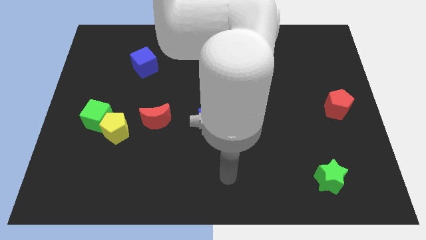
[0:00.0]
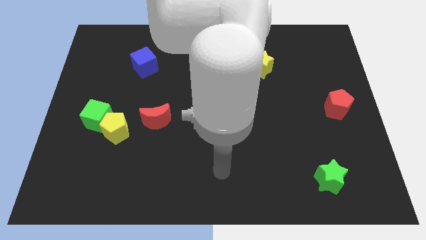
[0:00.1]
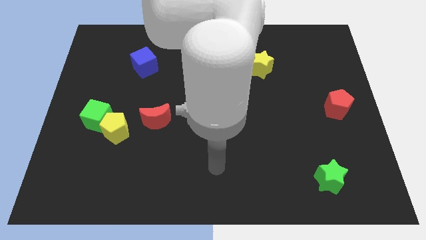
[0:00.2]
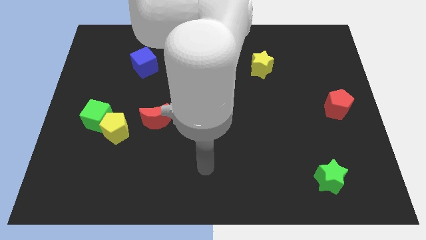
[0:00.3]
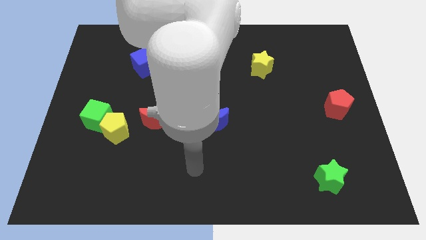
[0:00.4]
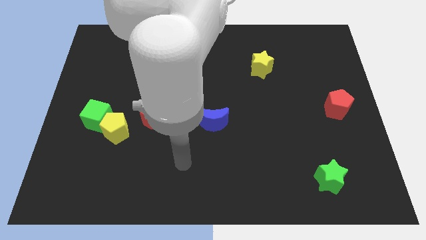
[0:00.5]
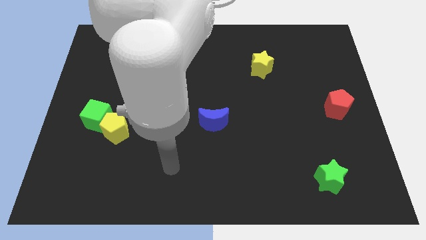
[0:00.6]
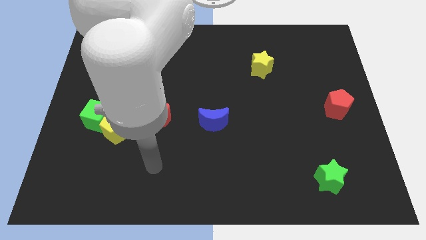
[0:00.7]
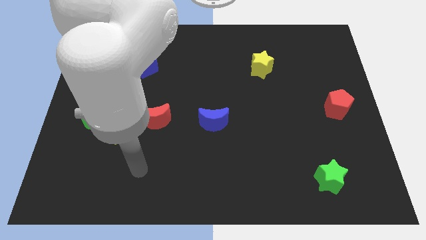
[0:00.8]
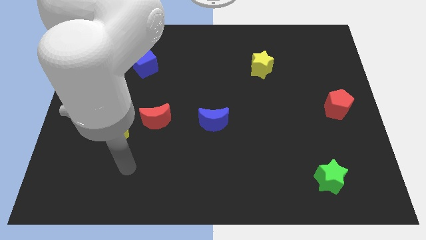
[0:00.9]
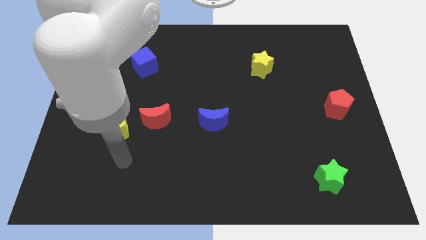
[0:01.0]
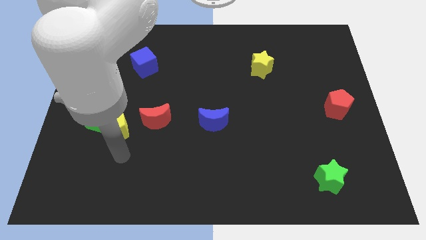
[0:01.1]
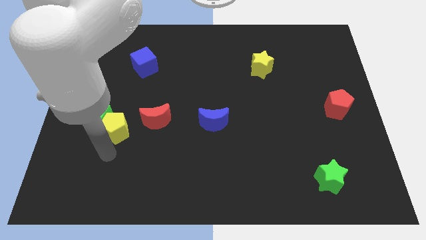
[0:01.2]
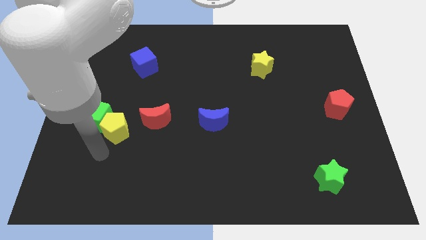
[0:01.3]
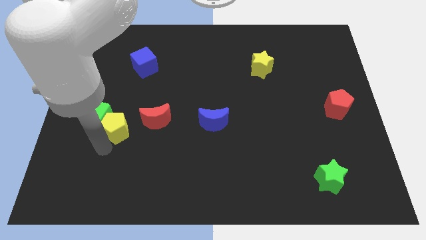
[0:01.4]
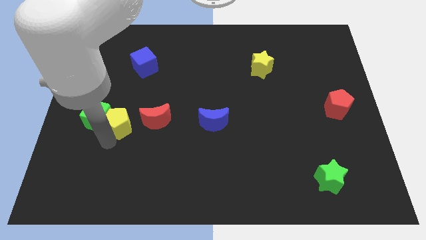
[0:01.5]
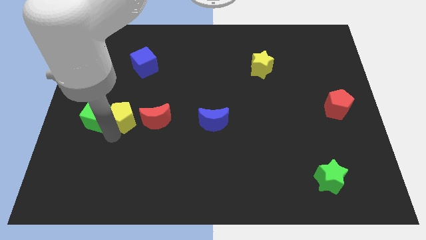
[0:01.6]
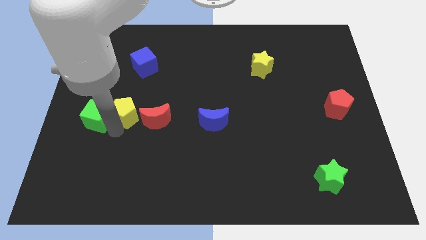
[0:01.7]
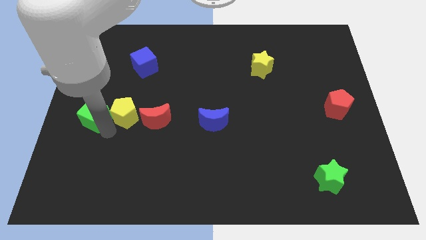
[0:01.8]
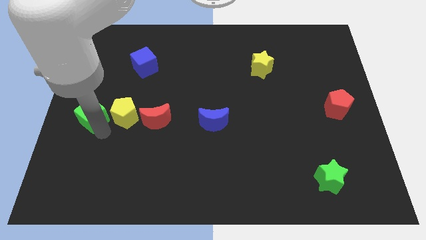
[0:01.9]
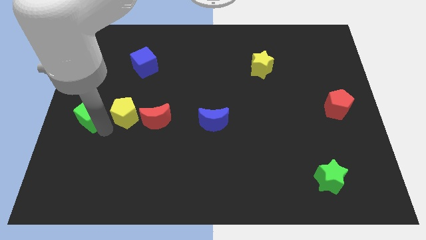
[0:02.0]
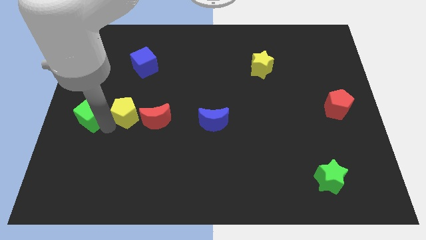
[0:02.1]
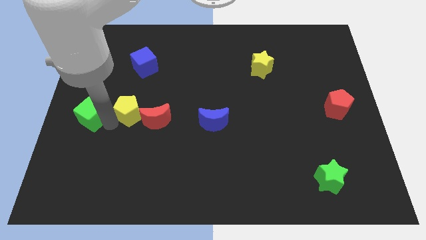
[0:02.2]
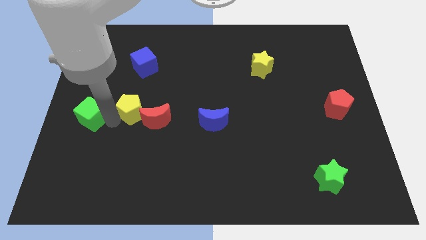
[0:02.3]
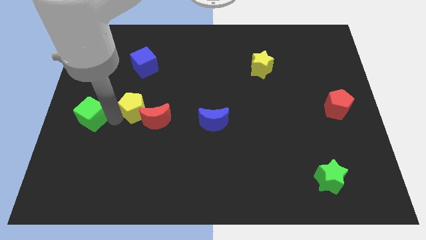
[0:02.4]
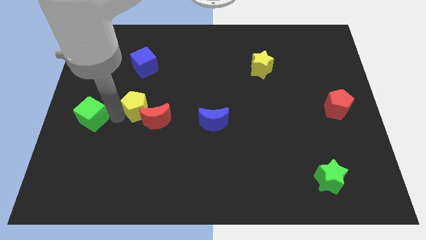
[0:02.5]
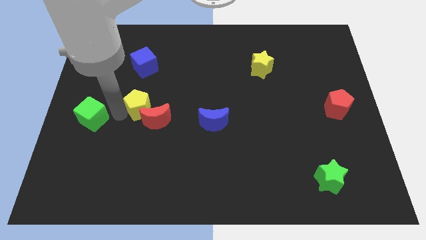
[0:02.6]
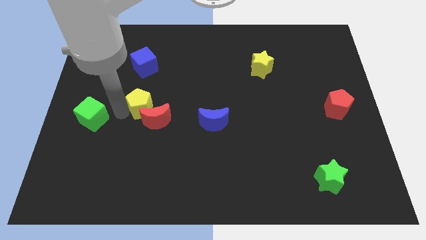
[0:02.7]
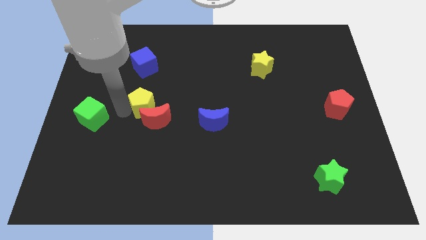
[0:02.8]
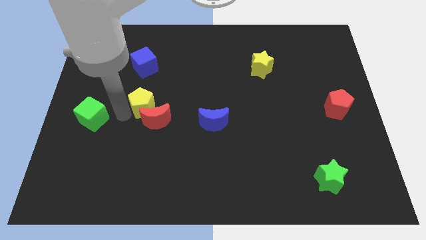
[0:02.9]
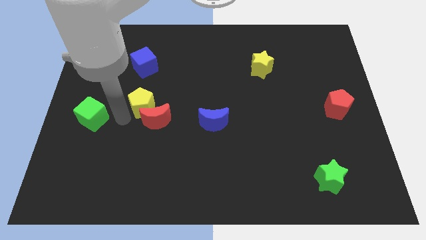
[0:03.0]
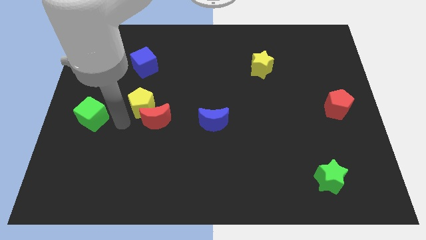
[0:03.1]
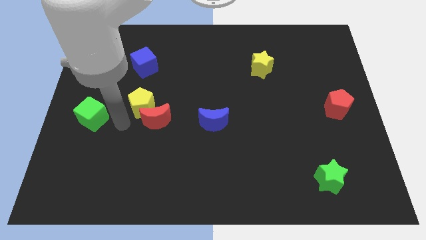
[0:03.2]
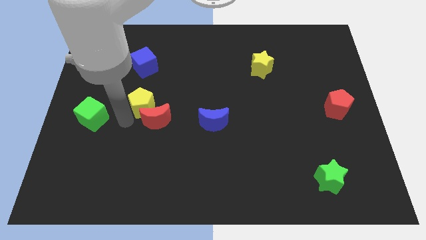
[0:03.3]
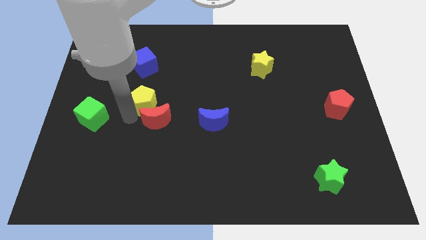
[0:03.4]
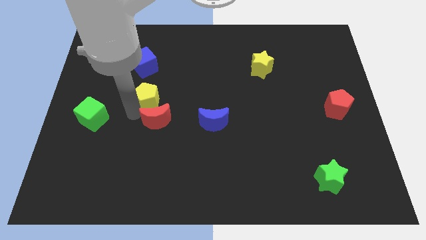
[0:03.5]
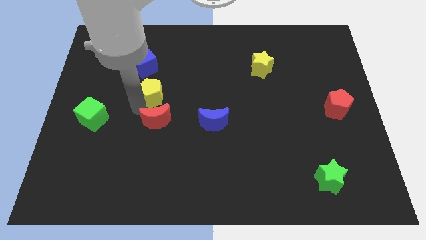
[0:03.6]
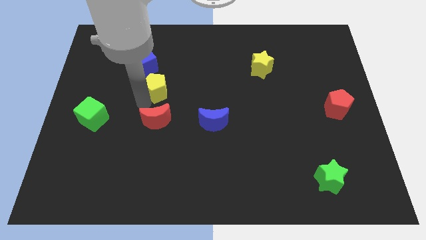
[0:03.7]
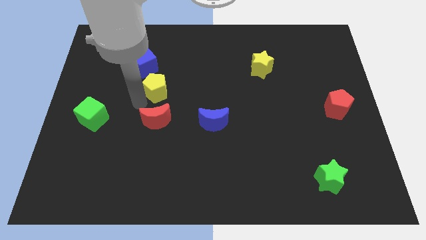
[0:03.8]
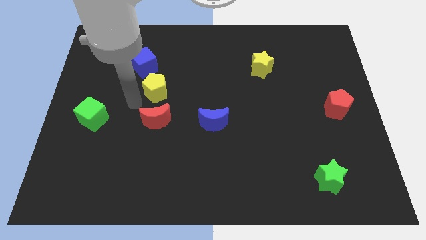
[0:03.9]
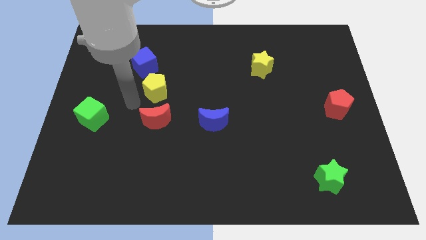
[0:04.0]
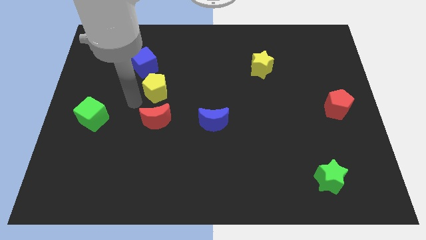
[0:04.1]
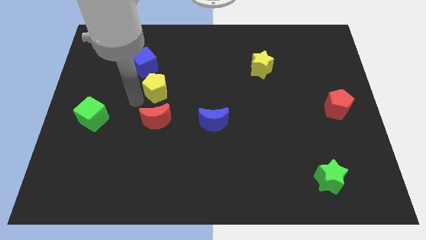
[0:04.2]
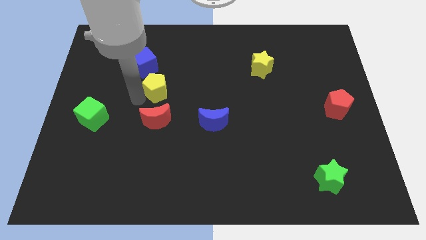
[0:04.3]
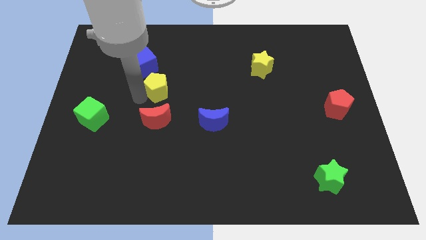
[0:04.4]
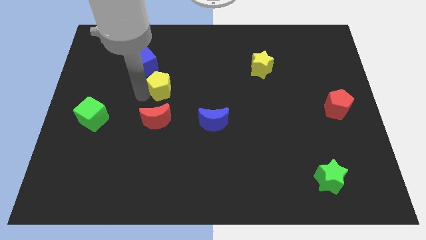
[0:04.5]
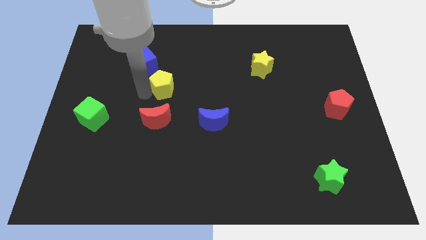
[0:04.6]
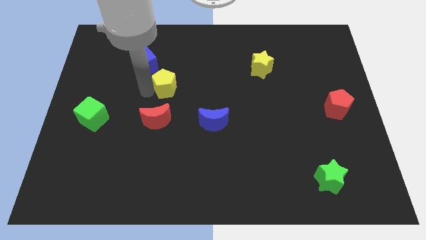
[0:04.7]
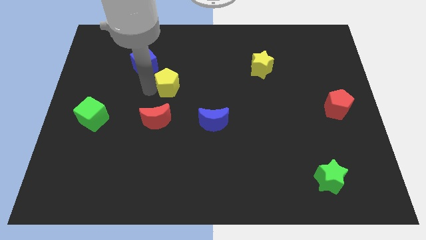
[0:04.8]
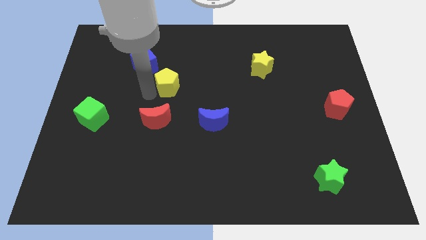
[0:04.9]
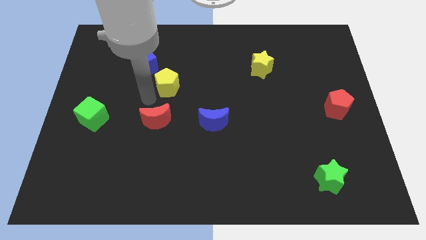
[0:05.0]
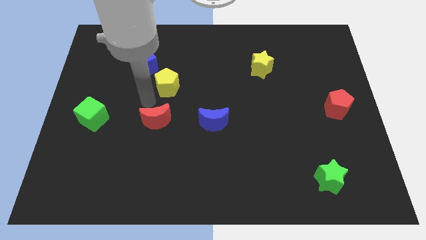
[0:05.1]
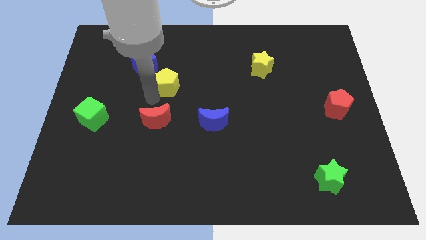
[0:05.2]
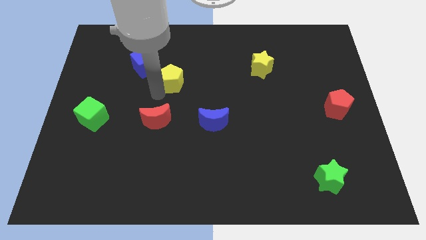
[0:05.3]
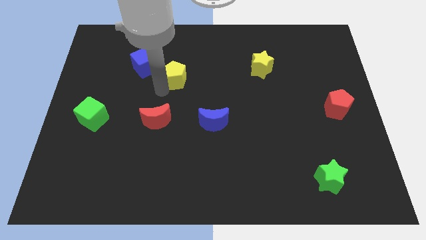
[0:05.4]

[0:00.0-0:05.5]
push the yellow pentagon up and then to the right

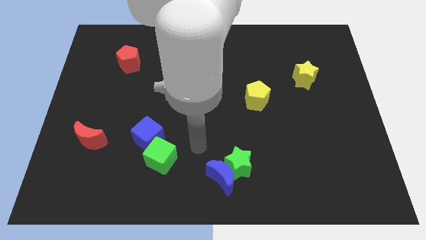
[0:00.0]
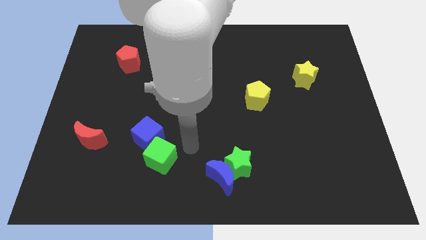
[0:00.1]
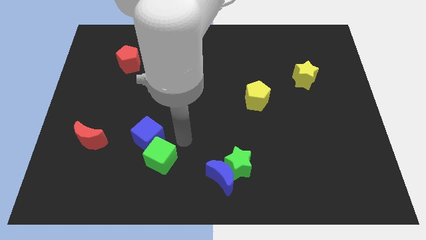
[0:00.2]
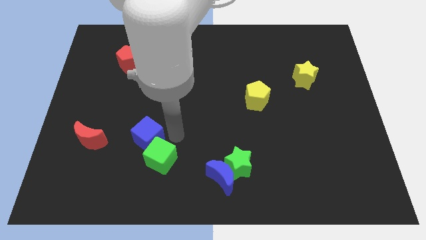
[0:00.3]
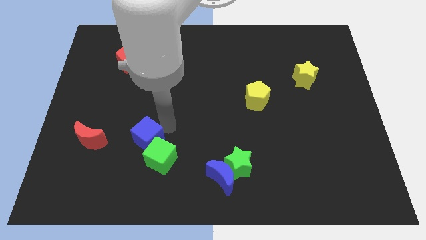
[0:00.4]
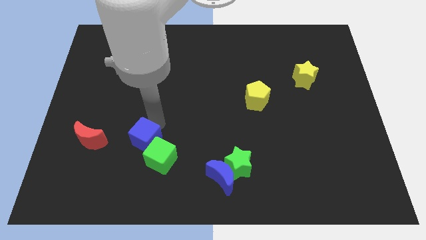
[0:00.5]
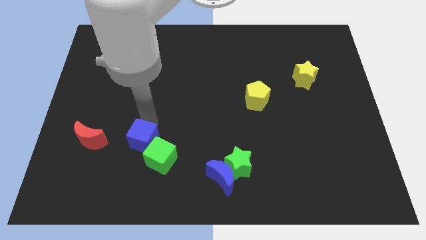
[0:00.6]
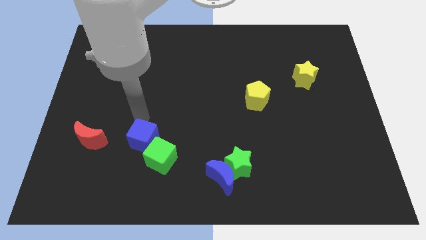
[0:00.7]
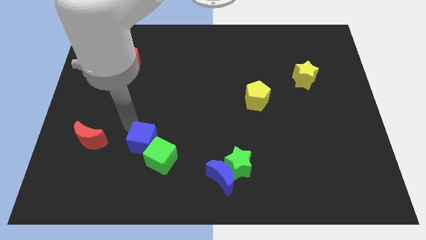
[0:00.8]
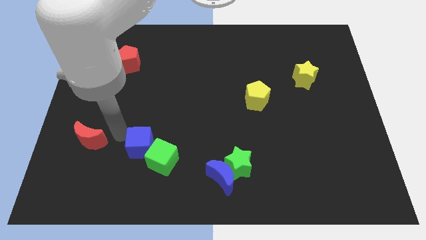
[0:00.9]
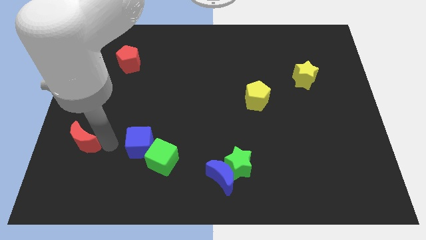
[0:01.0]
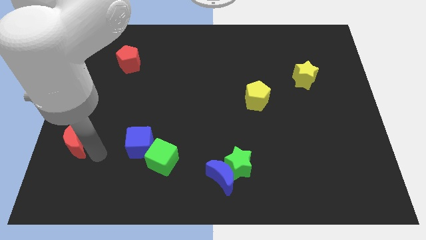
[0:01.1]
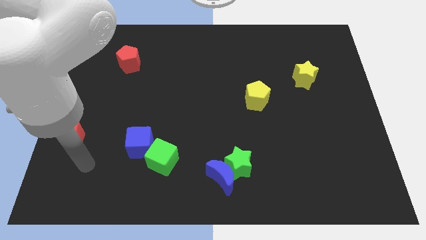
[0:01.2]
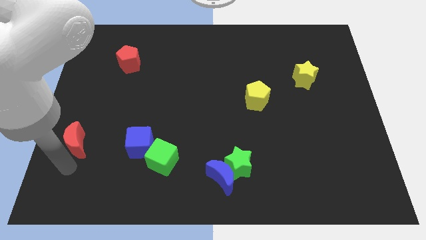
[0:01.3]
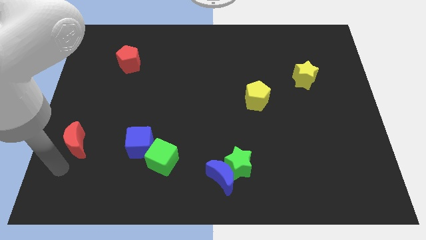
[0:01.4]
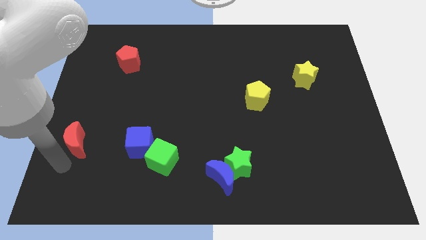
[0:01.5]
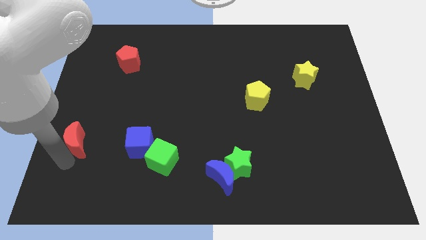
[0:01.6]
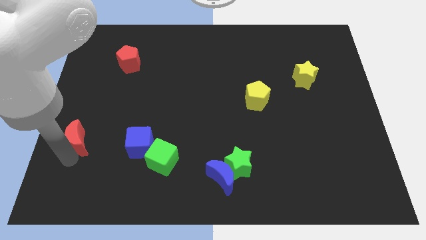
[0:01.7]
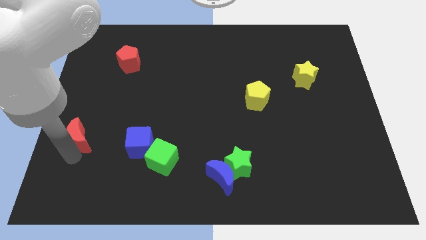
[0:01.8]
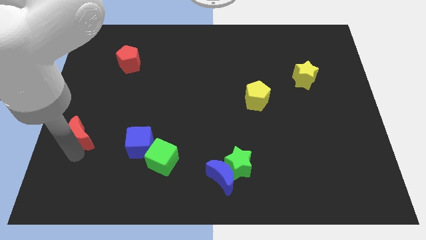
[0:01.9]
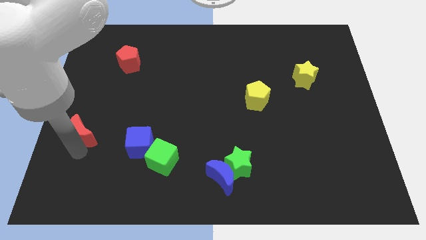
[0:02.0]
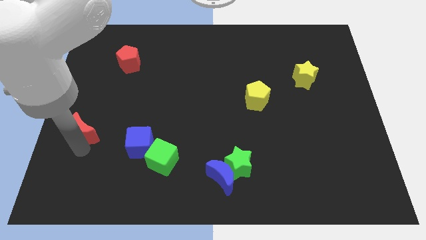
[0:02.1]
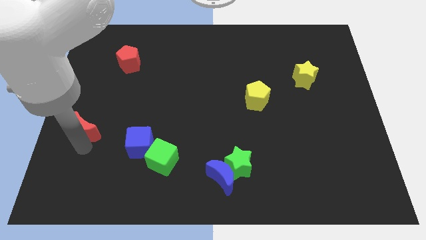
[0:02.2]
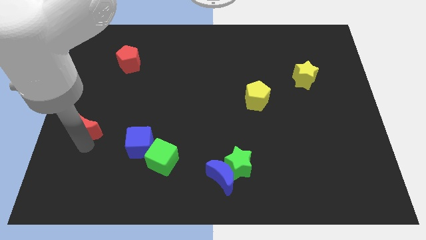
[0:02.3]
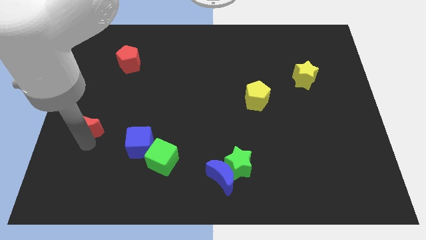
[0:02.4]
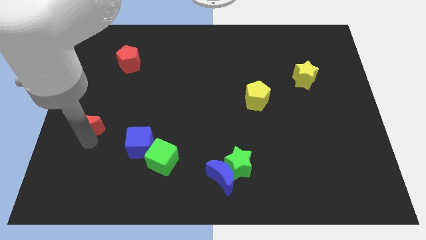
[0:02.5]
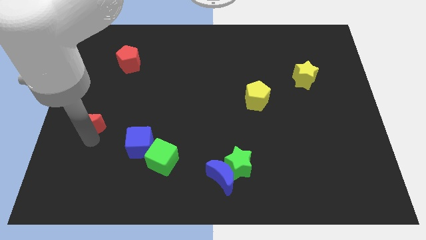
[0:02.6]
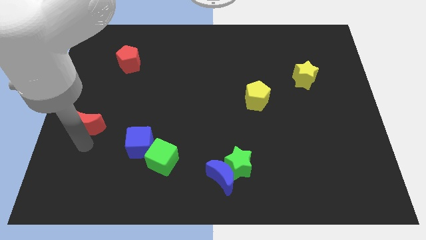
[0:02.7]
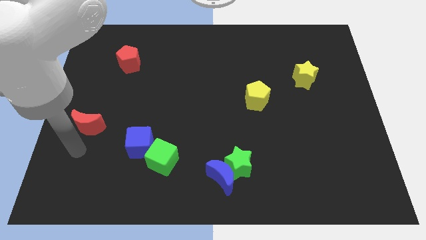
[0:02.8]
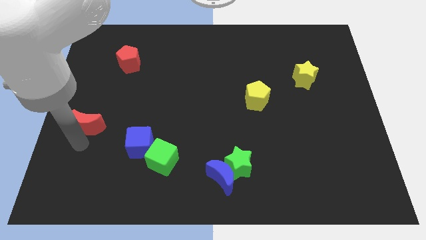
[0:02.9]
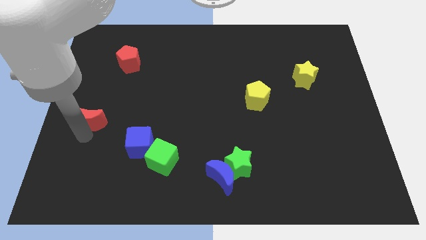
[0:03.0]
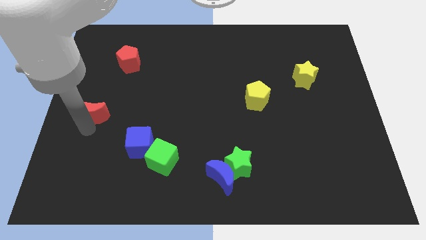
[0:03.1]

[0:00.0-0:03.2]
move the red moon up slightly

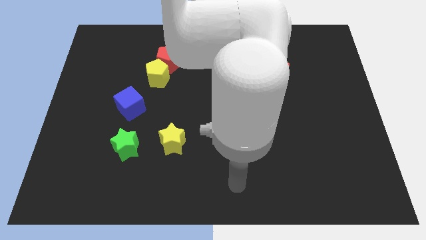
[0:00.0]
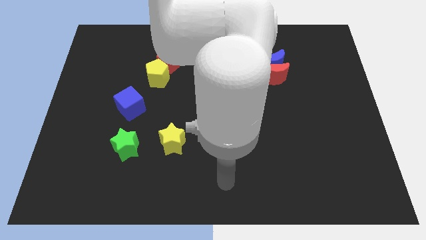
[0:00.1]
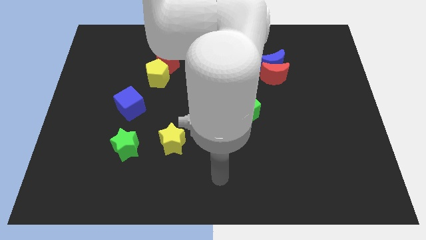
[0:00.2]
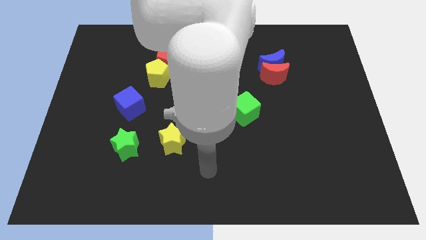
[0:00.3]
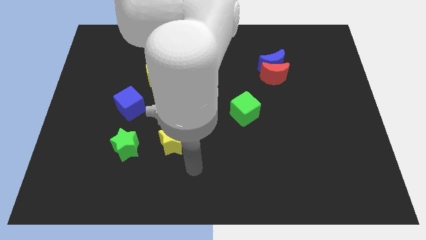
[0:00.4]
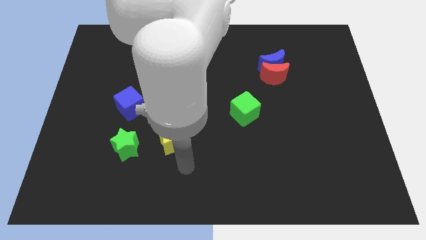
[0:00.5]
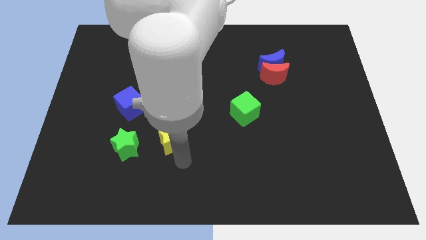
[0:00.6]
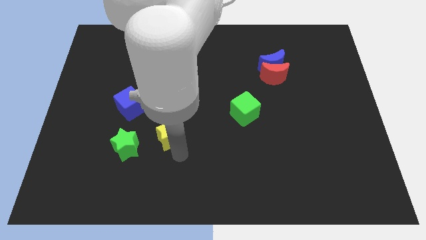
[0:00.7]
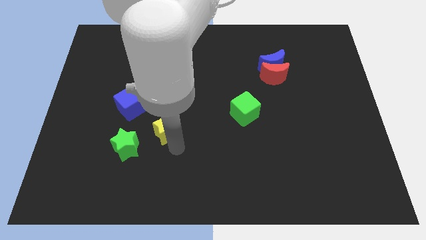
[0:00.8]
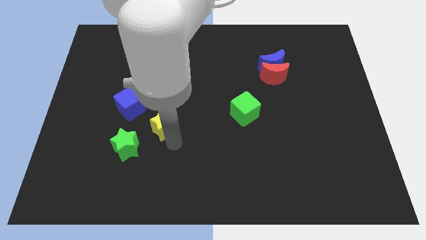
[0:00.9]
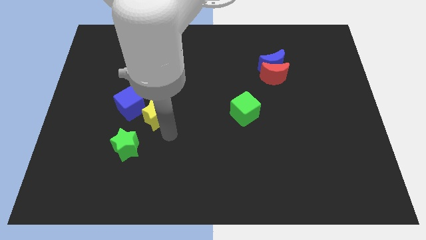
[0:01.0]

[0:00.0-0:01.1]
slightly move the yellow star up and then left
